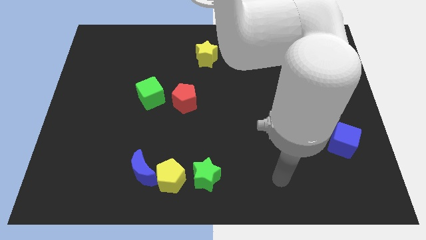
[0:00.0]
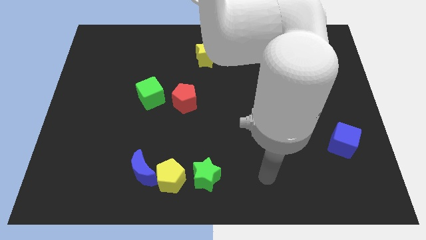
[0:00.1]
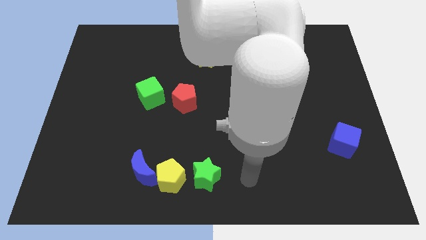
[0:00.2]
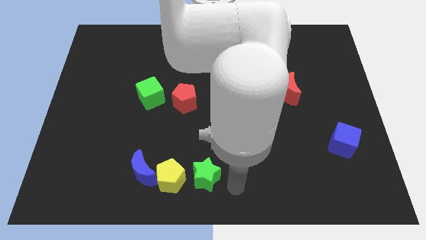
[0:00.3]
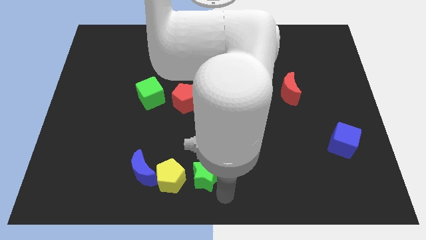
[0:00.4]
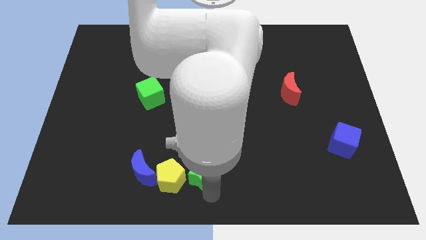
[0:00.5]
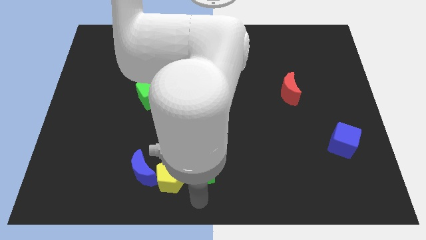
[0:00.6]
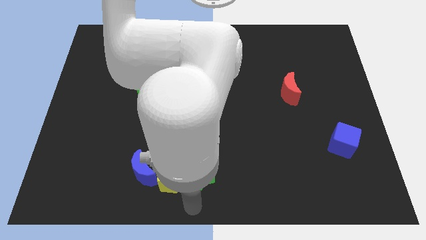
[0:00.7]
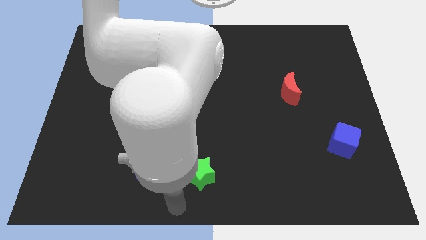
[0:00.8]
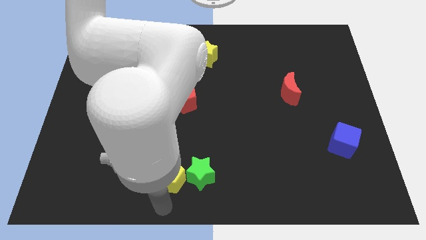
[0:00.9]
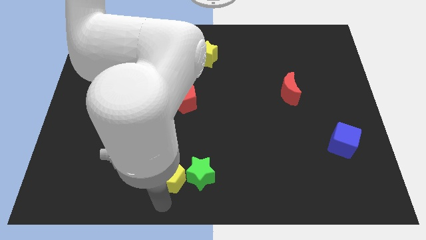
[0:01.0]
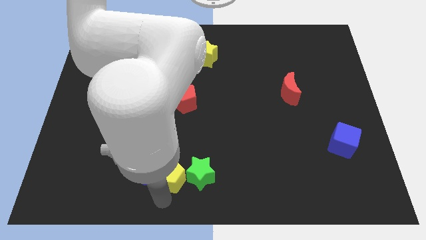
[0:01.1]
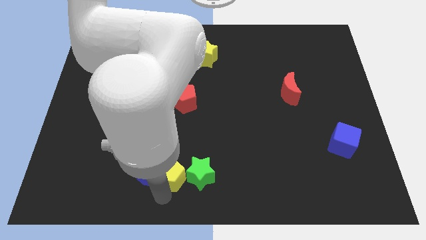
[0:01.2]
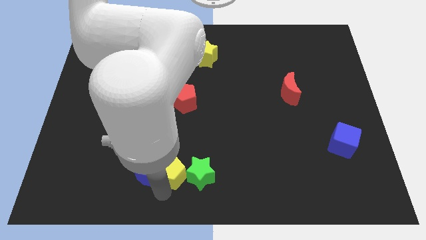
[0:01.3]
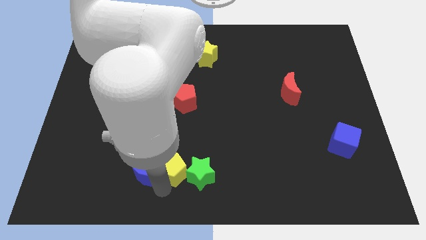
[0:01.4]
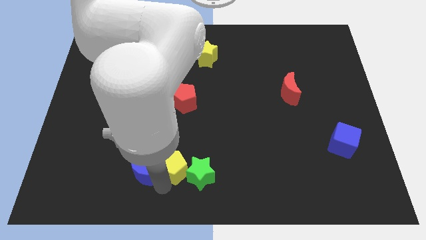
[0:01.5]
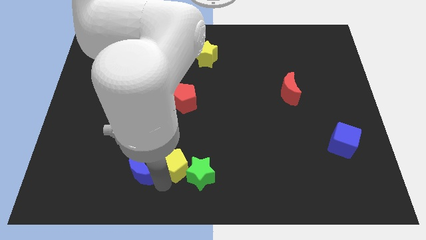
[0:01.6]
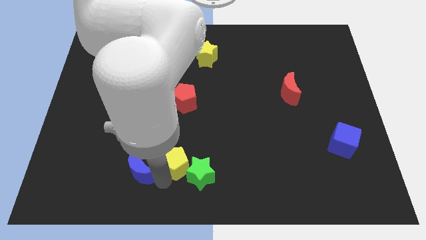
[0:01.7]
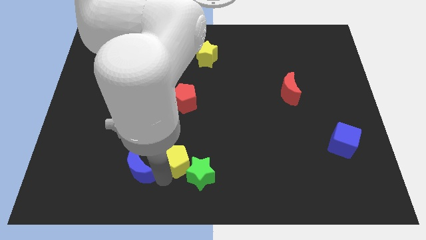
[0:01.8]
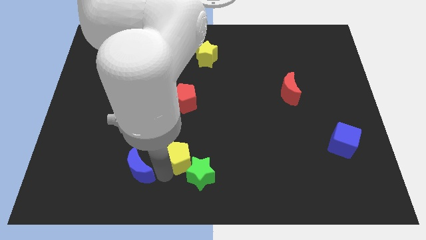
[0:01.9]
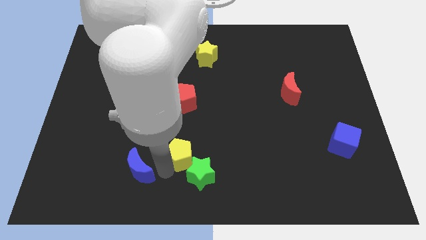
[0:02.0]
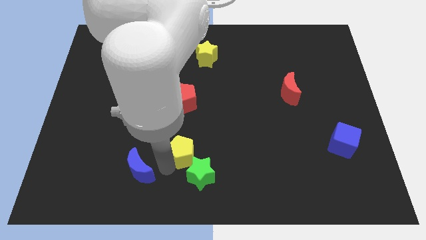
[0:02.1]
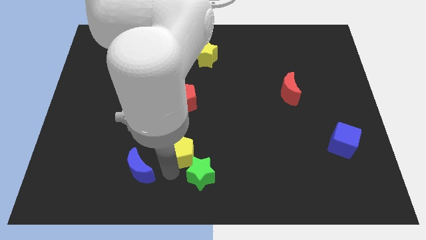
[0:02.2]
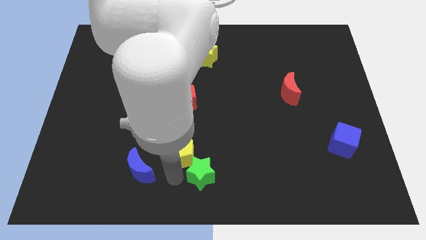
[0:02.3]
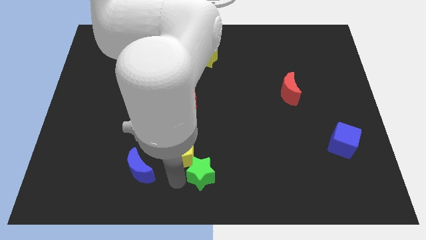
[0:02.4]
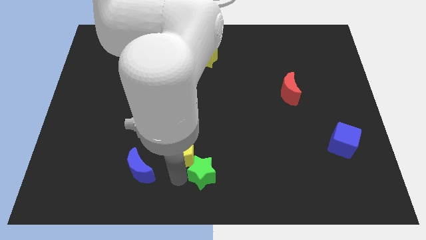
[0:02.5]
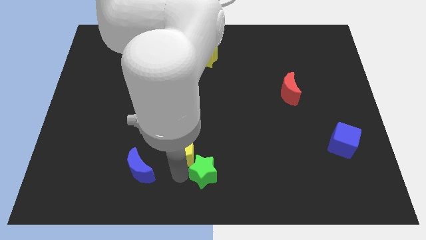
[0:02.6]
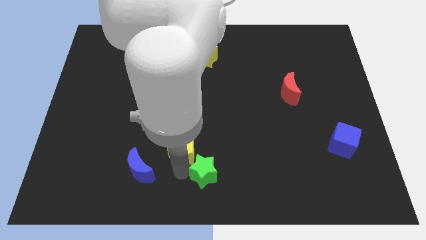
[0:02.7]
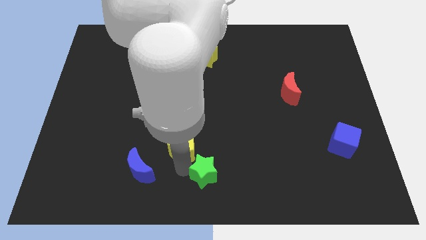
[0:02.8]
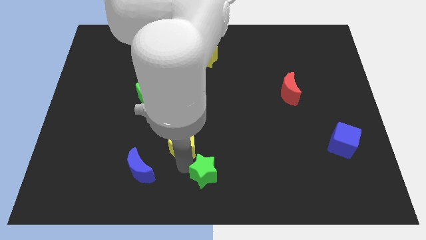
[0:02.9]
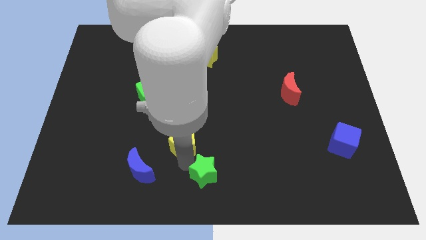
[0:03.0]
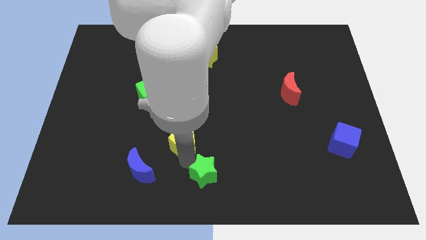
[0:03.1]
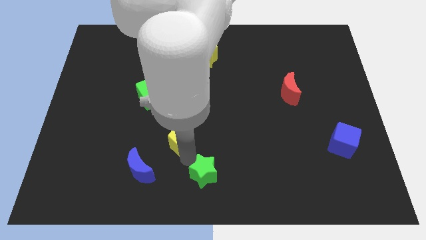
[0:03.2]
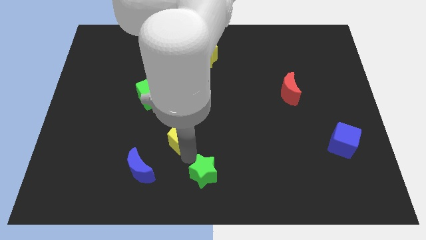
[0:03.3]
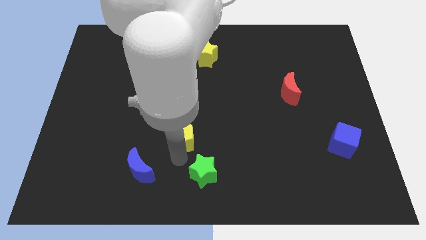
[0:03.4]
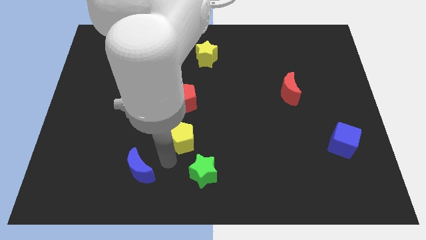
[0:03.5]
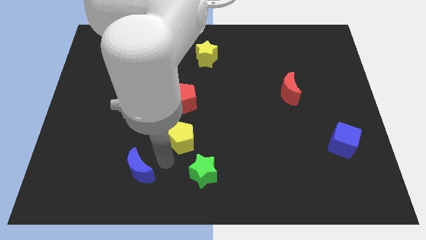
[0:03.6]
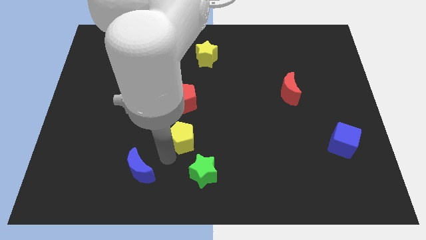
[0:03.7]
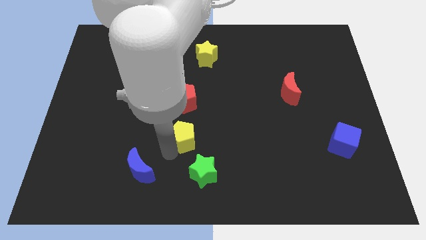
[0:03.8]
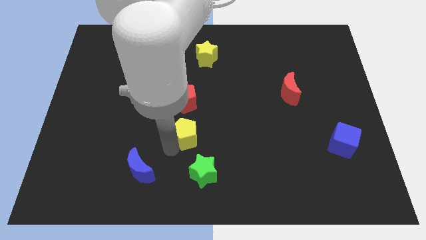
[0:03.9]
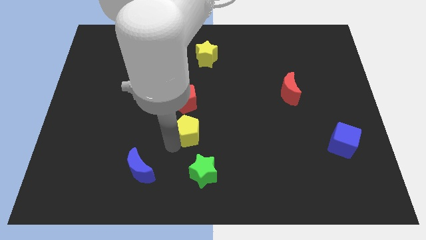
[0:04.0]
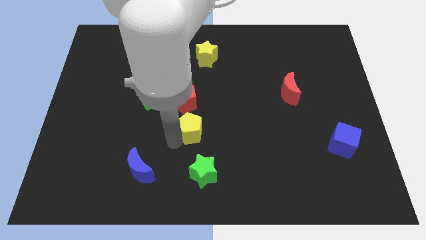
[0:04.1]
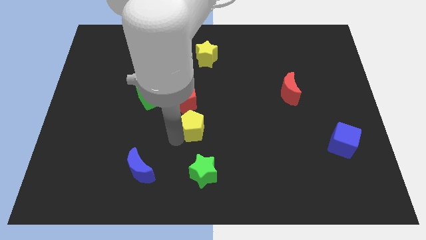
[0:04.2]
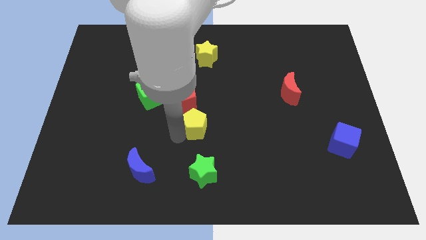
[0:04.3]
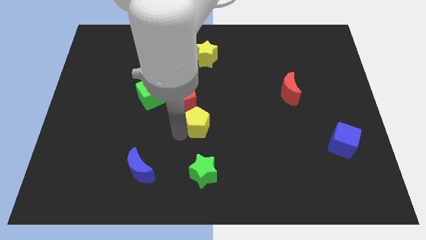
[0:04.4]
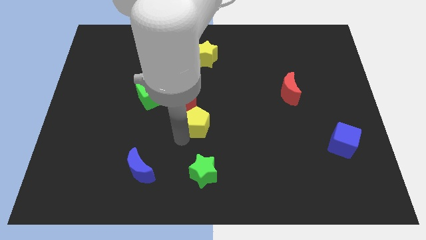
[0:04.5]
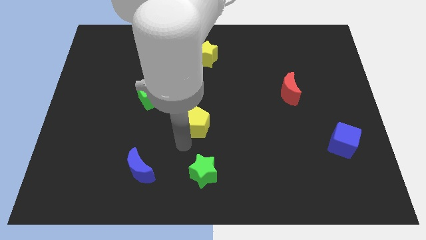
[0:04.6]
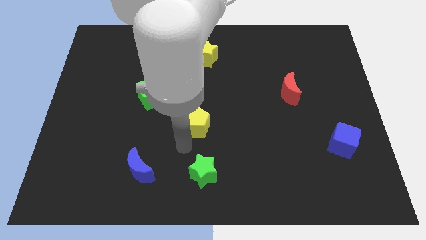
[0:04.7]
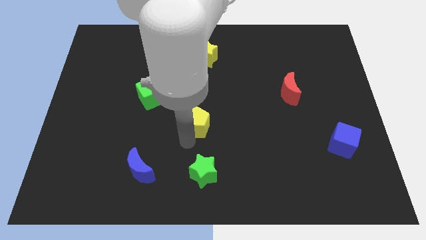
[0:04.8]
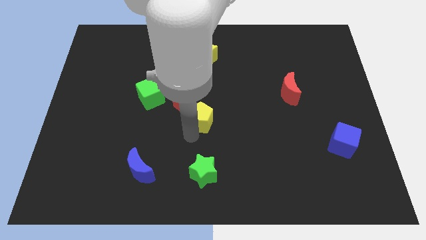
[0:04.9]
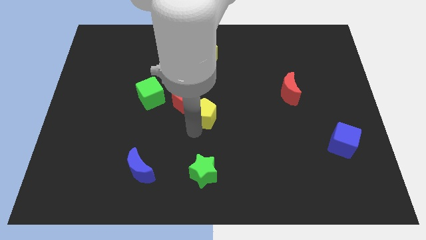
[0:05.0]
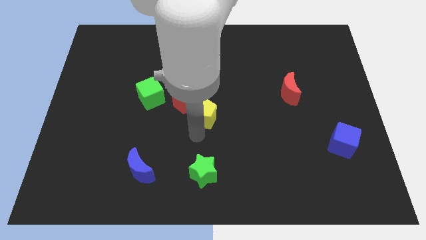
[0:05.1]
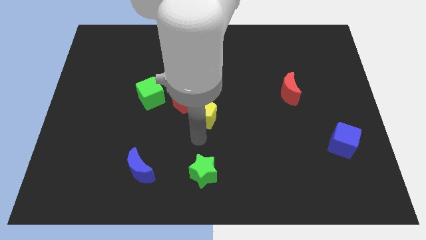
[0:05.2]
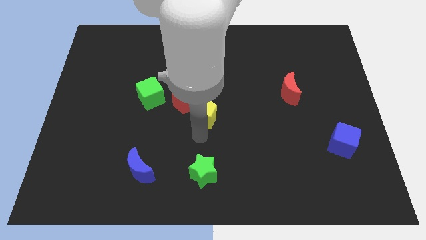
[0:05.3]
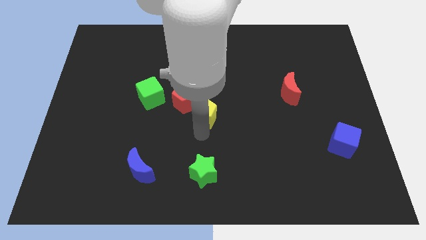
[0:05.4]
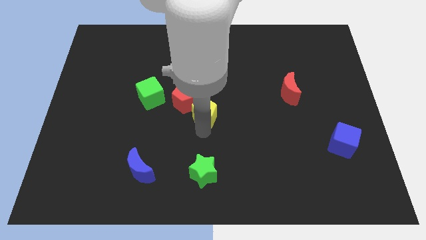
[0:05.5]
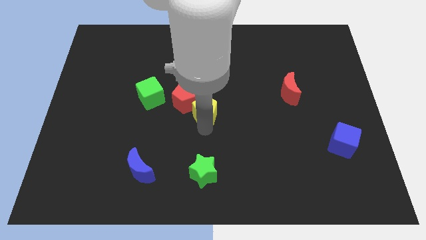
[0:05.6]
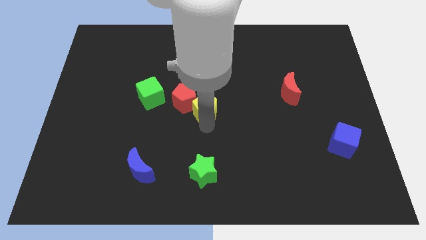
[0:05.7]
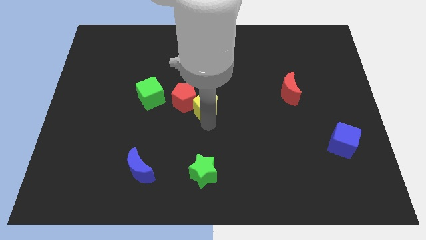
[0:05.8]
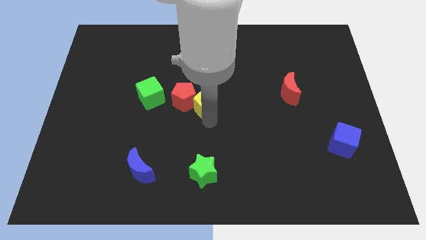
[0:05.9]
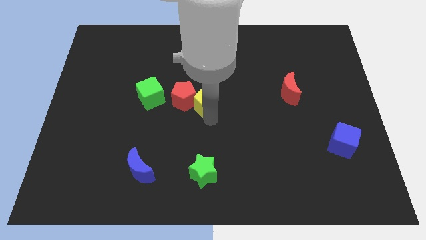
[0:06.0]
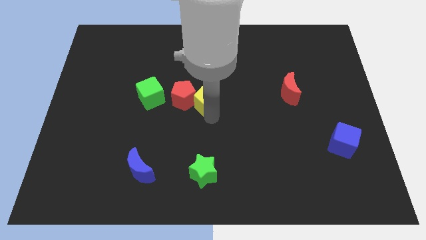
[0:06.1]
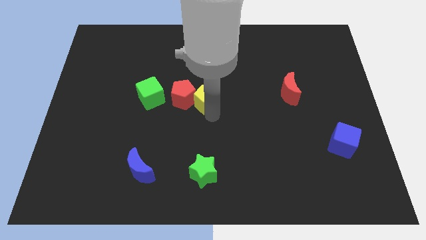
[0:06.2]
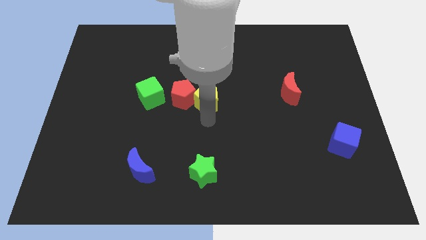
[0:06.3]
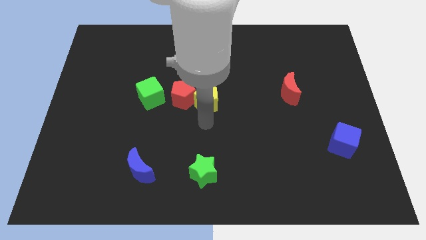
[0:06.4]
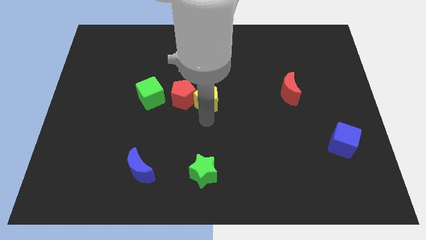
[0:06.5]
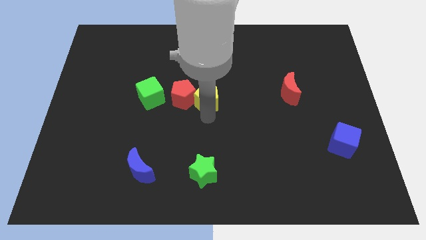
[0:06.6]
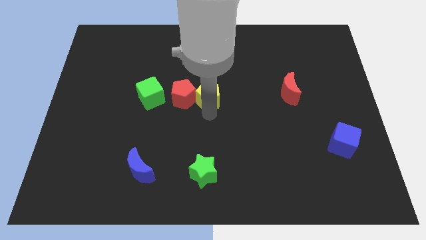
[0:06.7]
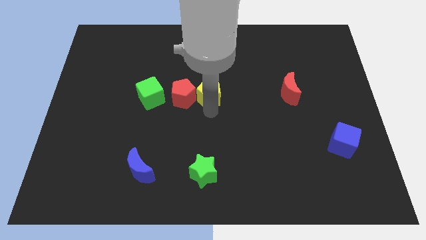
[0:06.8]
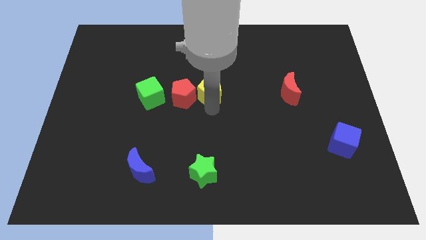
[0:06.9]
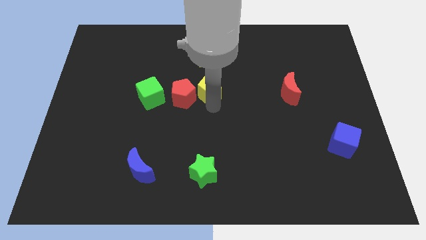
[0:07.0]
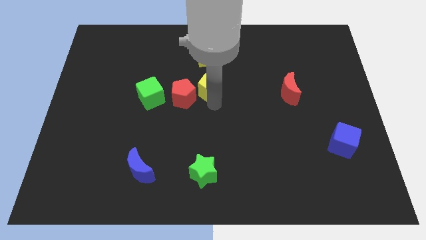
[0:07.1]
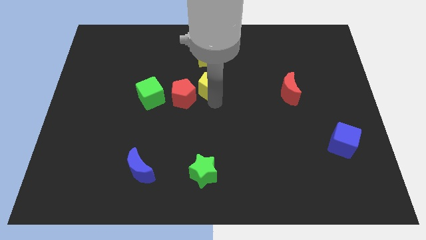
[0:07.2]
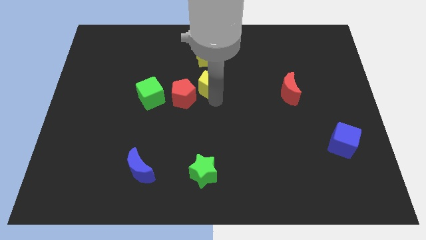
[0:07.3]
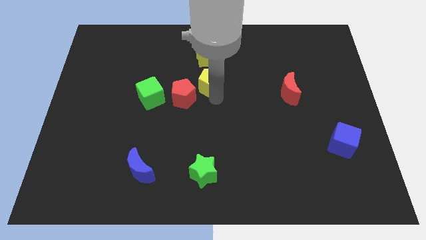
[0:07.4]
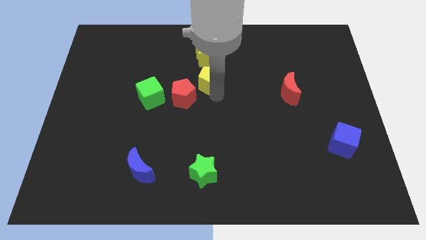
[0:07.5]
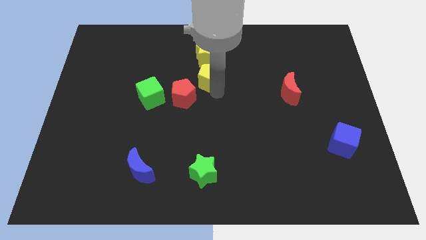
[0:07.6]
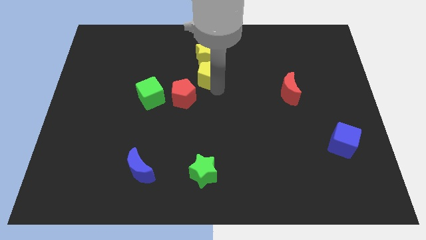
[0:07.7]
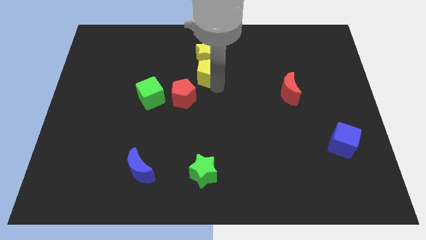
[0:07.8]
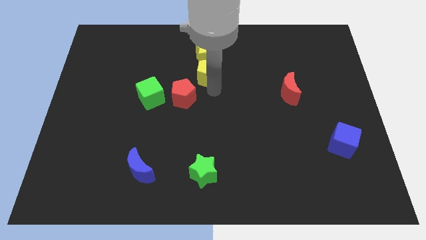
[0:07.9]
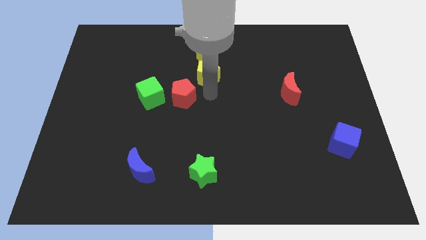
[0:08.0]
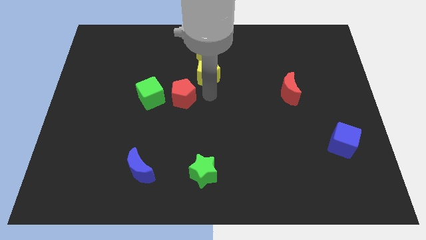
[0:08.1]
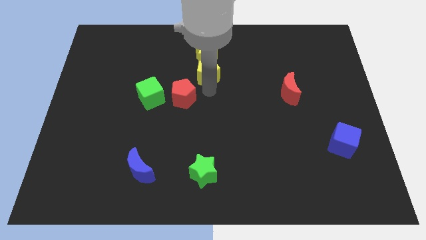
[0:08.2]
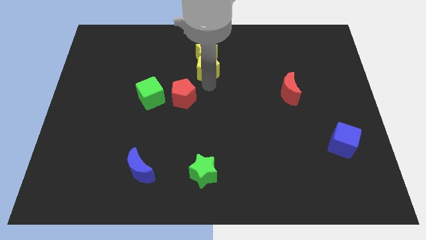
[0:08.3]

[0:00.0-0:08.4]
push the yellow pentagon to the yellow star
